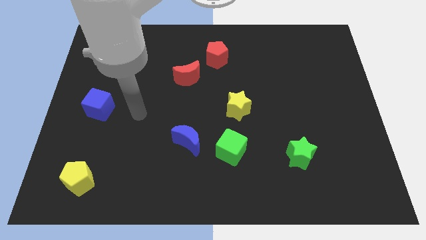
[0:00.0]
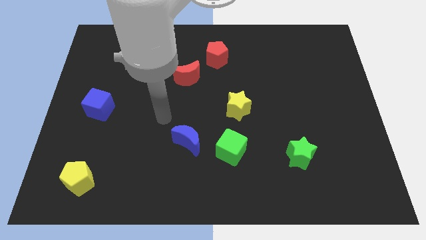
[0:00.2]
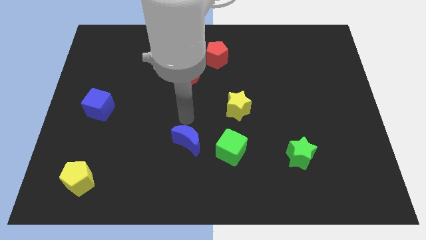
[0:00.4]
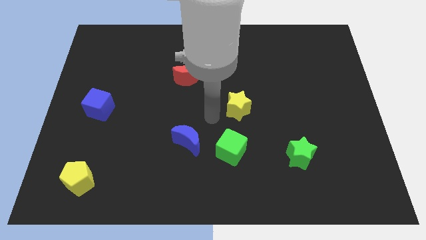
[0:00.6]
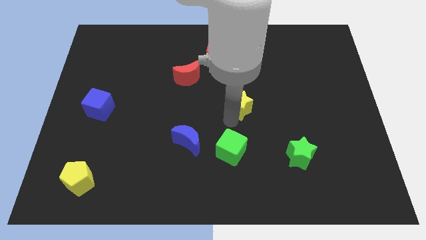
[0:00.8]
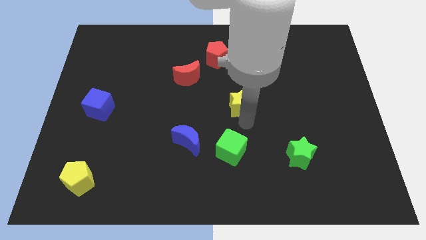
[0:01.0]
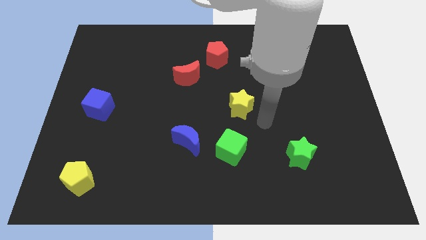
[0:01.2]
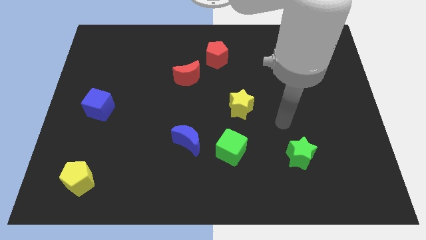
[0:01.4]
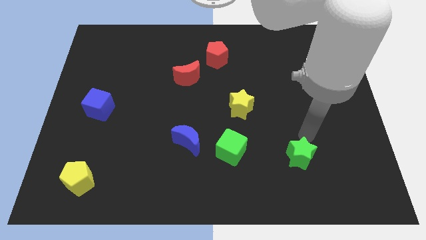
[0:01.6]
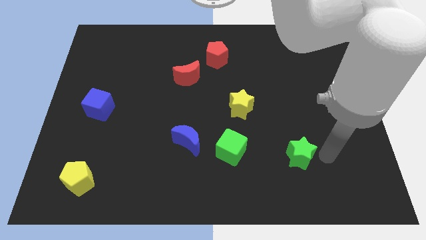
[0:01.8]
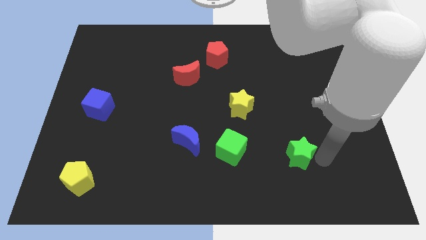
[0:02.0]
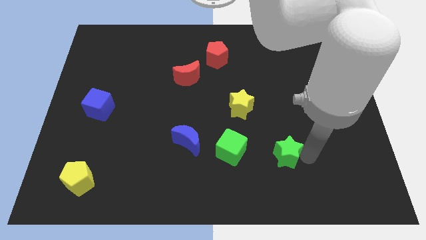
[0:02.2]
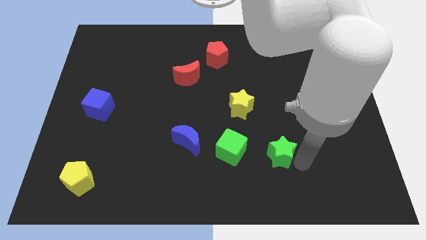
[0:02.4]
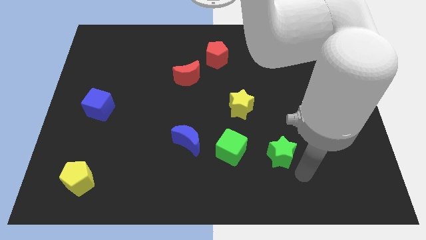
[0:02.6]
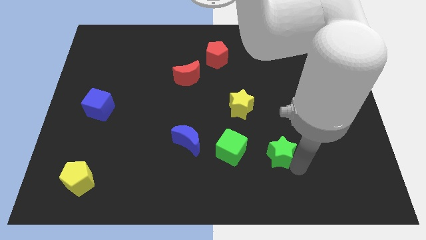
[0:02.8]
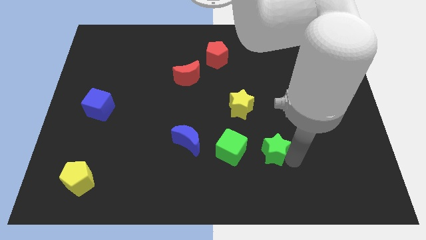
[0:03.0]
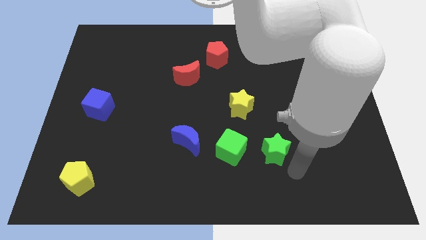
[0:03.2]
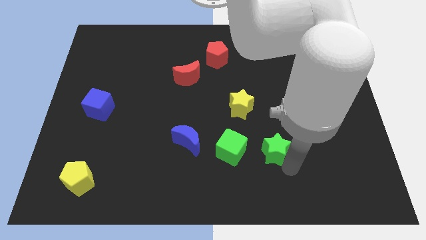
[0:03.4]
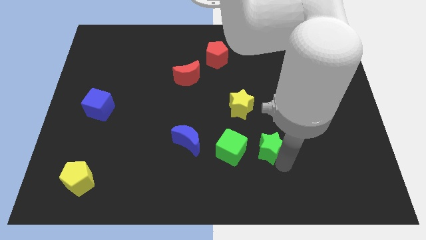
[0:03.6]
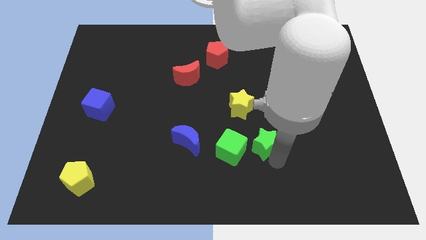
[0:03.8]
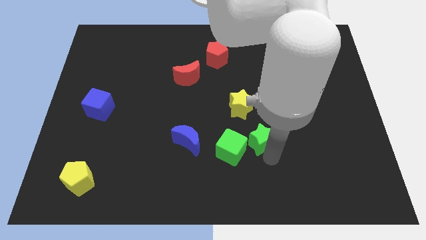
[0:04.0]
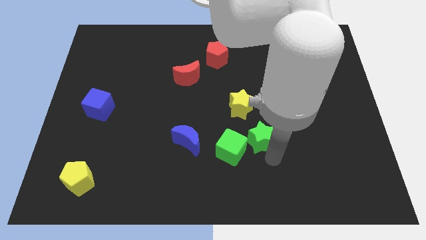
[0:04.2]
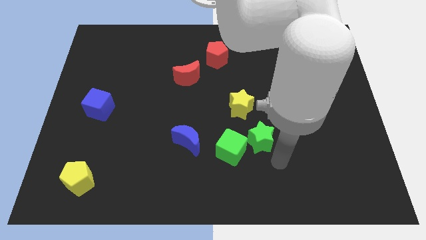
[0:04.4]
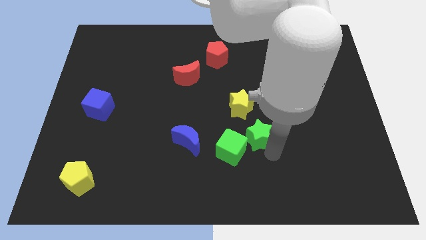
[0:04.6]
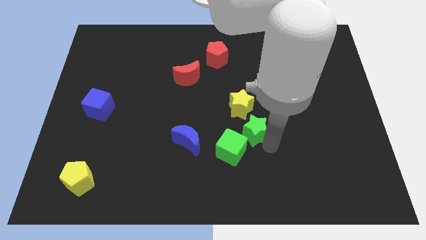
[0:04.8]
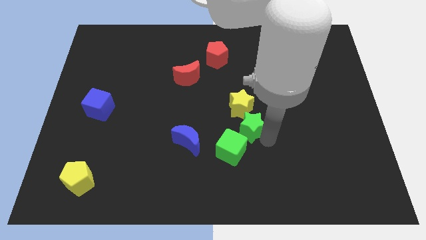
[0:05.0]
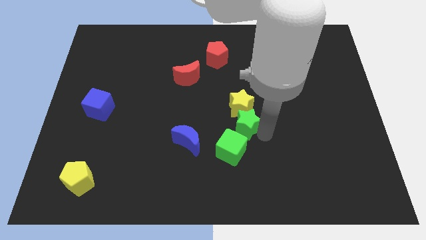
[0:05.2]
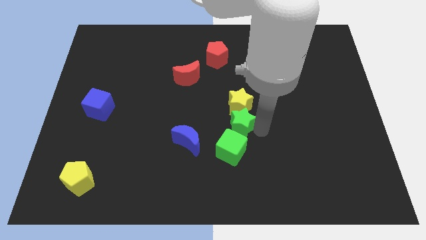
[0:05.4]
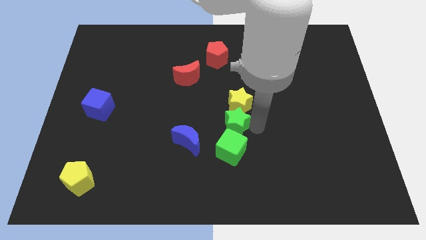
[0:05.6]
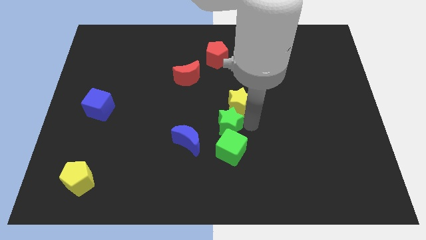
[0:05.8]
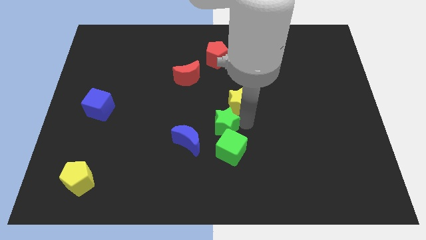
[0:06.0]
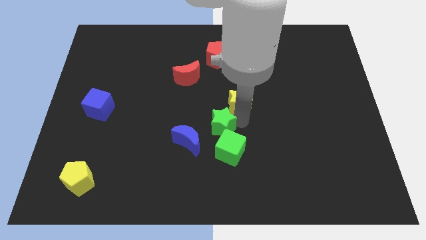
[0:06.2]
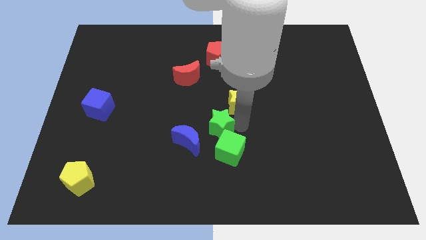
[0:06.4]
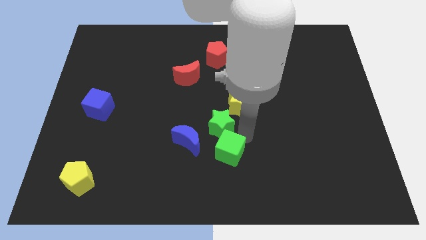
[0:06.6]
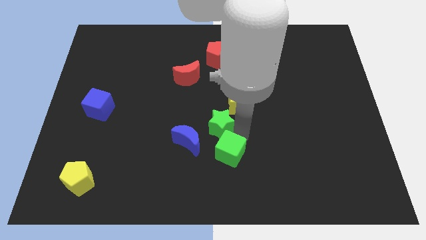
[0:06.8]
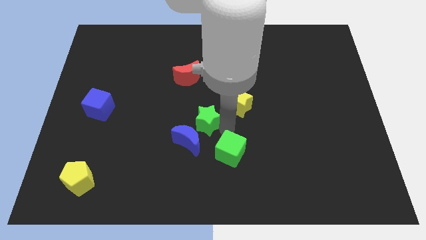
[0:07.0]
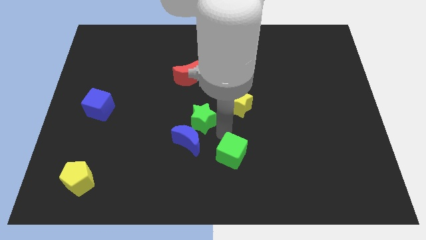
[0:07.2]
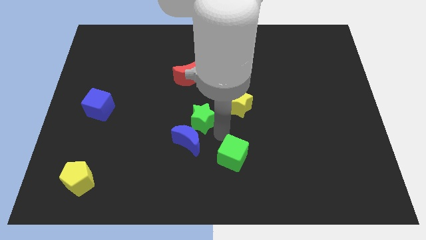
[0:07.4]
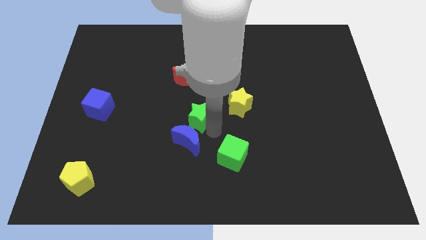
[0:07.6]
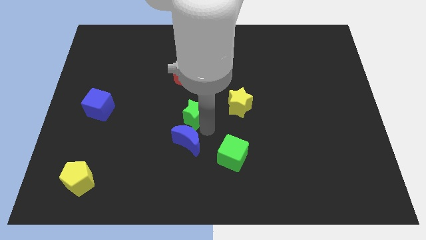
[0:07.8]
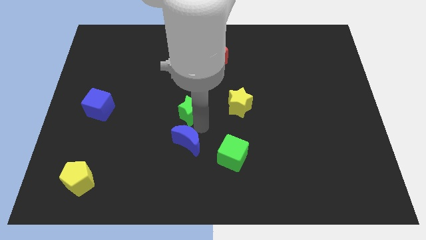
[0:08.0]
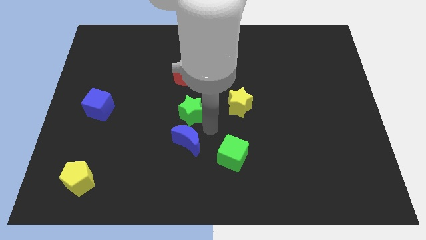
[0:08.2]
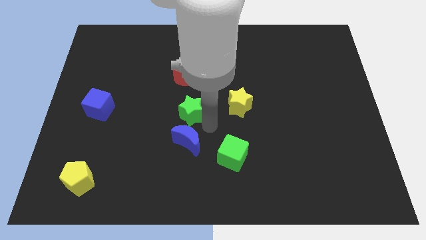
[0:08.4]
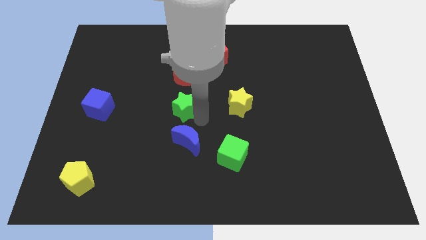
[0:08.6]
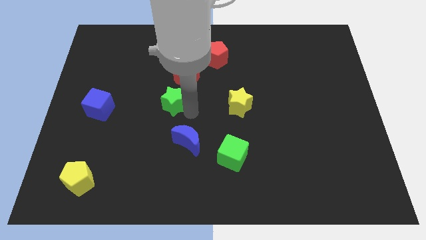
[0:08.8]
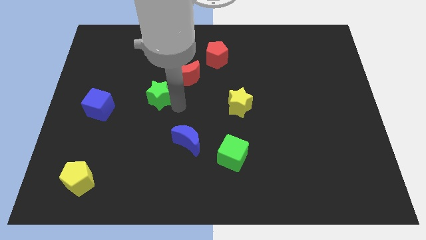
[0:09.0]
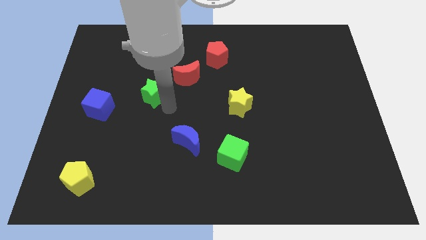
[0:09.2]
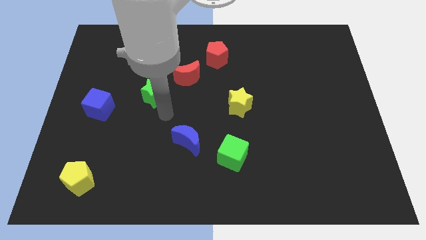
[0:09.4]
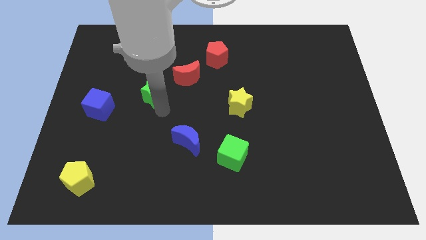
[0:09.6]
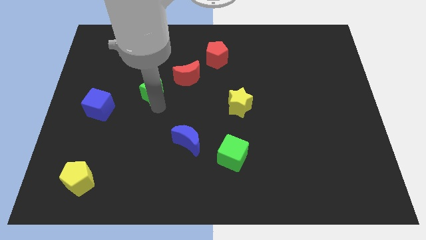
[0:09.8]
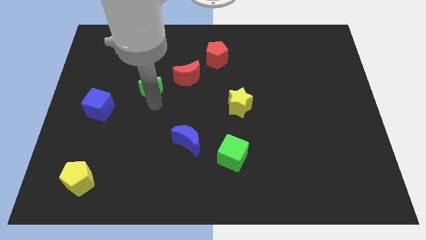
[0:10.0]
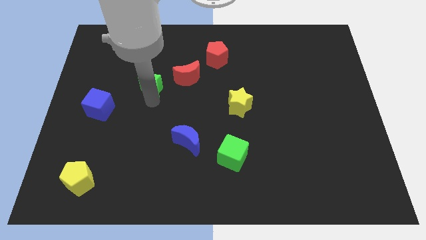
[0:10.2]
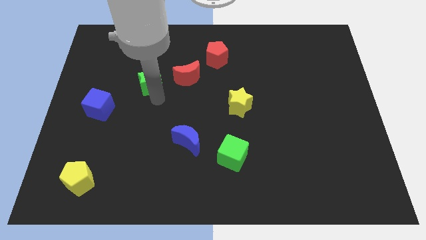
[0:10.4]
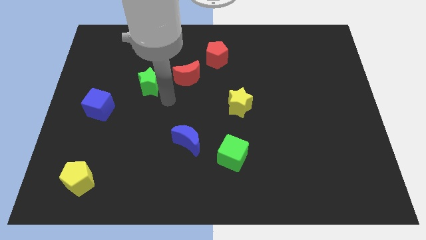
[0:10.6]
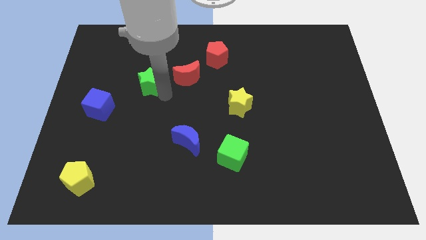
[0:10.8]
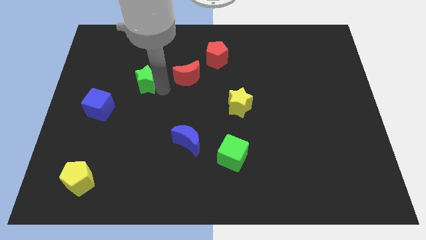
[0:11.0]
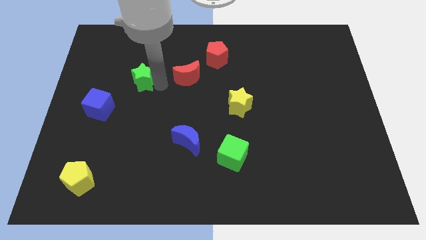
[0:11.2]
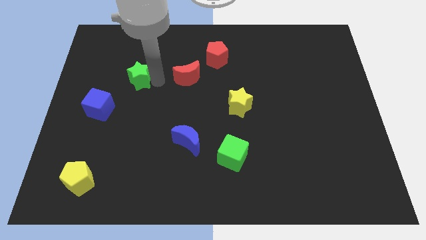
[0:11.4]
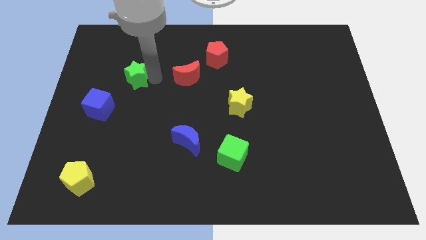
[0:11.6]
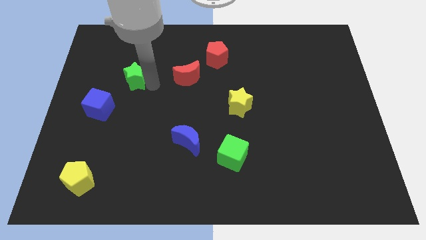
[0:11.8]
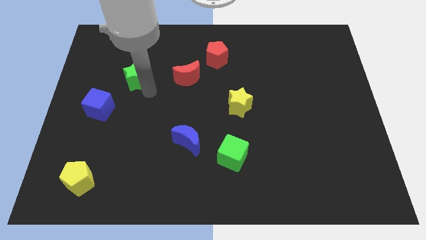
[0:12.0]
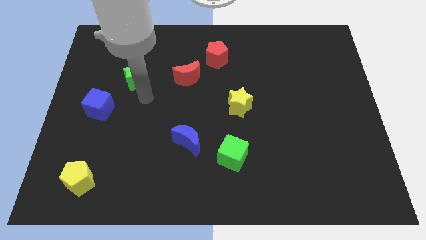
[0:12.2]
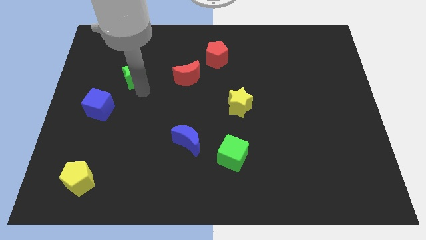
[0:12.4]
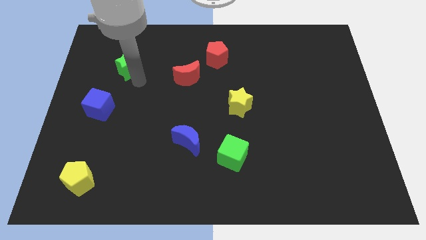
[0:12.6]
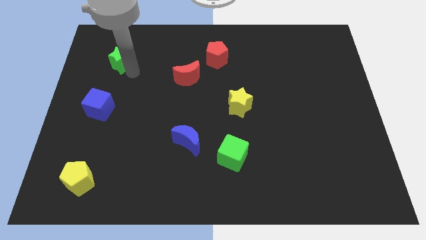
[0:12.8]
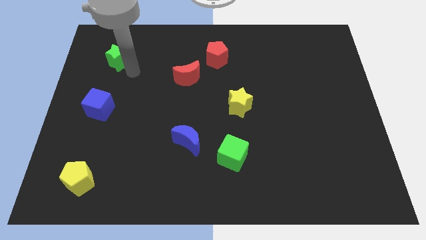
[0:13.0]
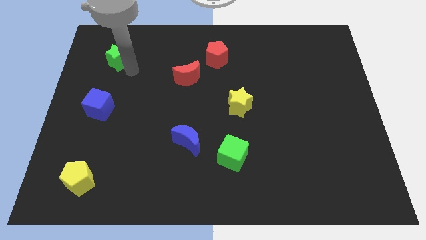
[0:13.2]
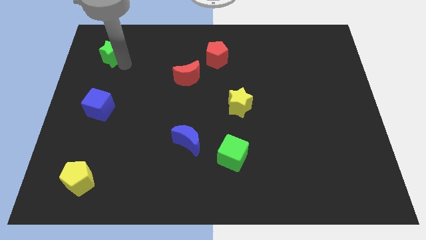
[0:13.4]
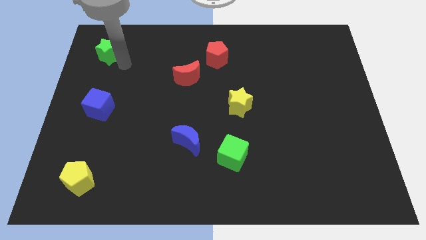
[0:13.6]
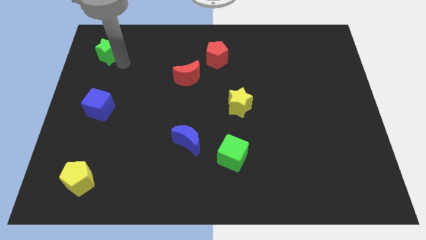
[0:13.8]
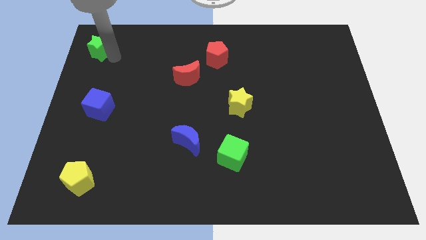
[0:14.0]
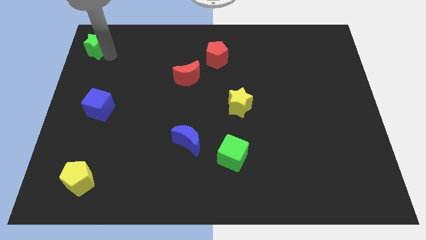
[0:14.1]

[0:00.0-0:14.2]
move the green star to the top left
